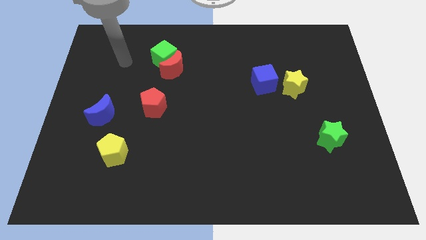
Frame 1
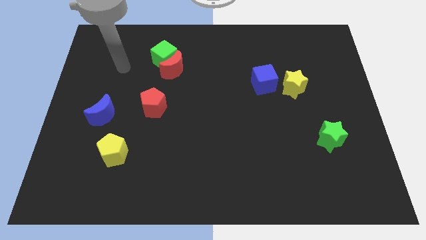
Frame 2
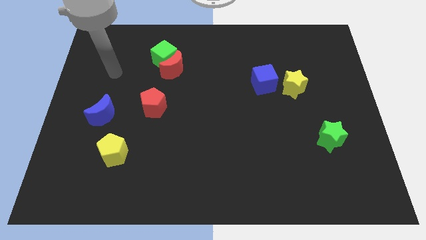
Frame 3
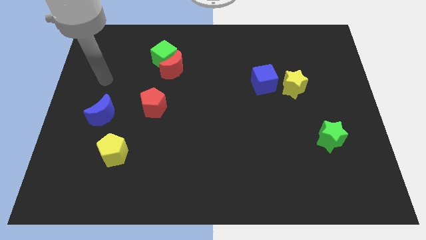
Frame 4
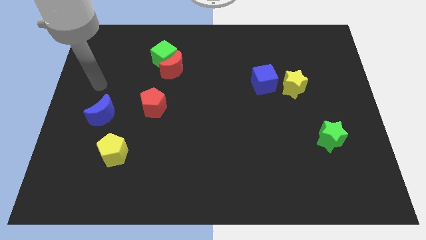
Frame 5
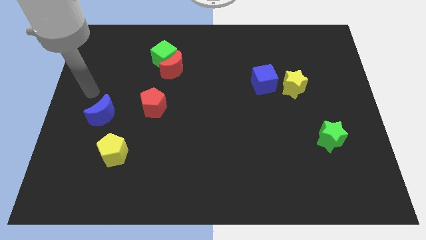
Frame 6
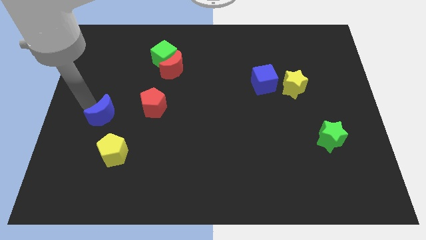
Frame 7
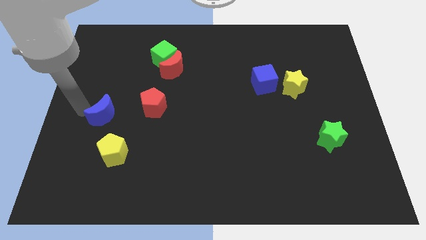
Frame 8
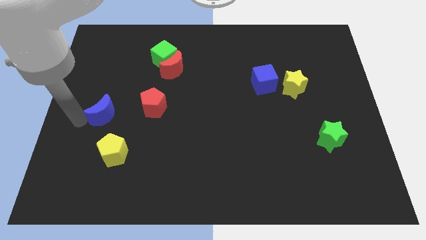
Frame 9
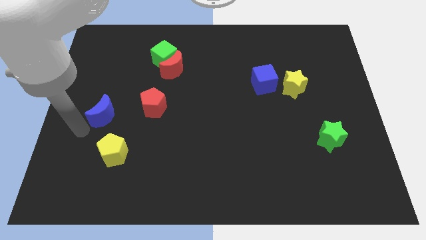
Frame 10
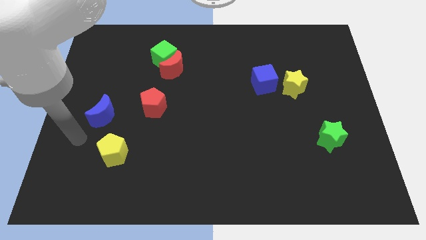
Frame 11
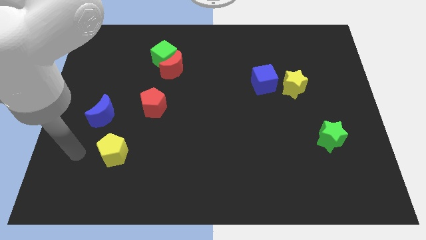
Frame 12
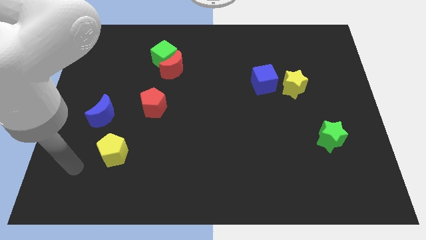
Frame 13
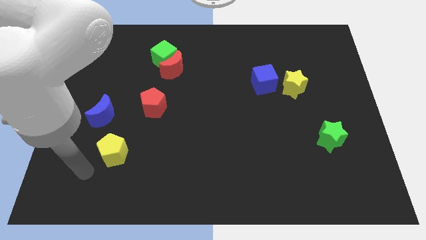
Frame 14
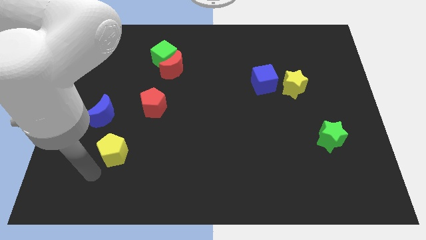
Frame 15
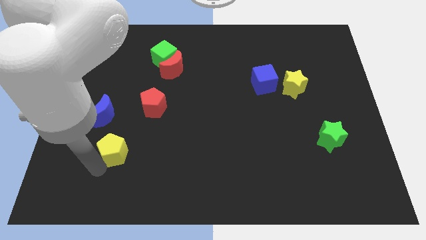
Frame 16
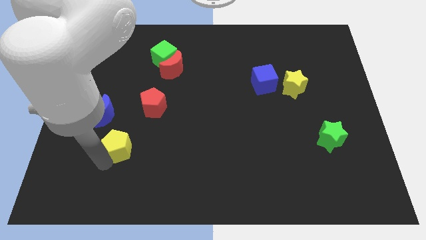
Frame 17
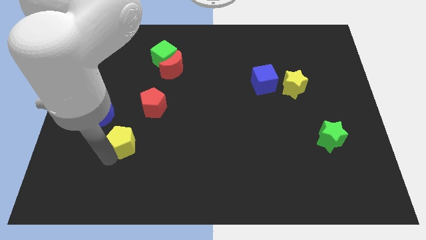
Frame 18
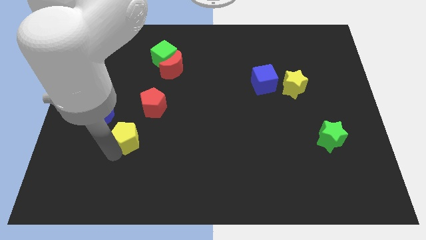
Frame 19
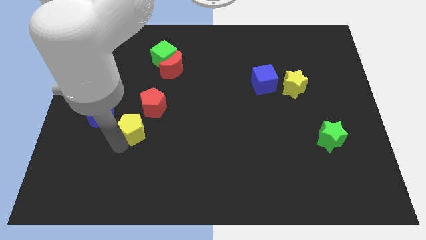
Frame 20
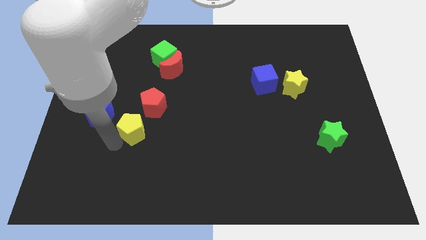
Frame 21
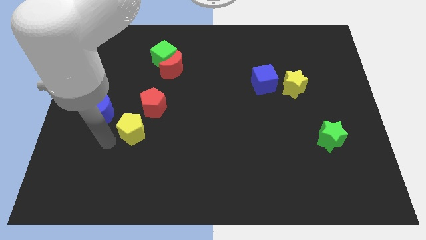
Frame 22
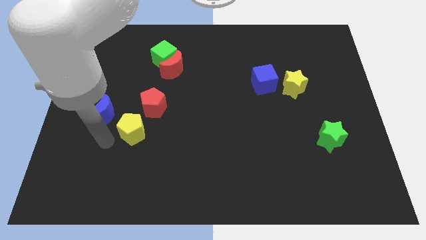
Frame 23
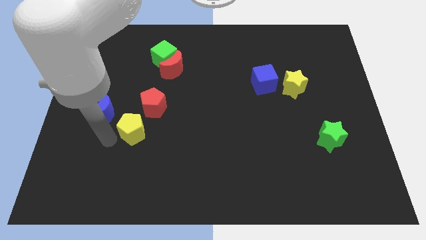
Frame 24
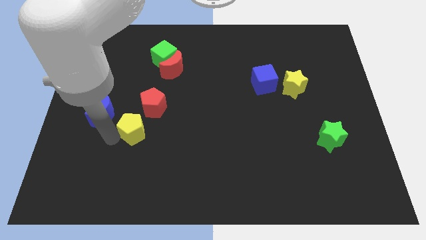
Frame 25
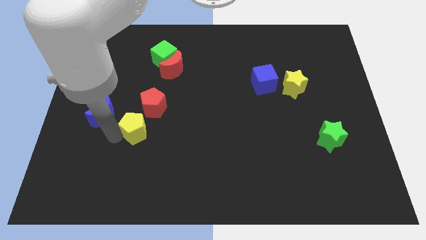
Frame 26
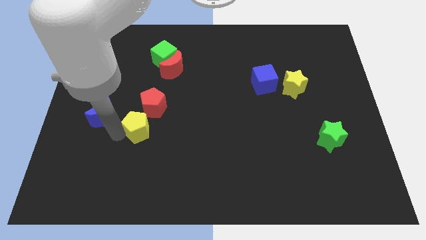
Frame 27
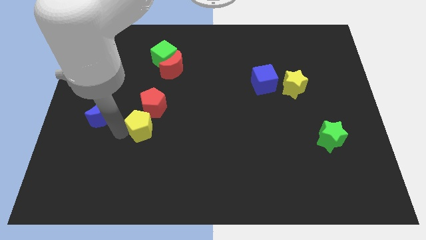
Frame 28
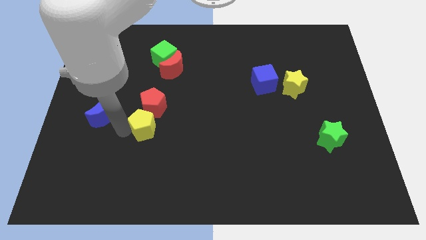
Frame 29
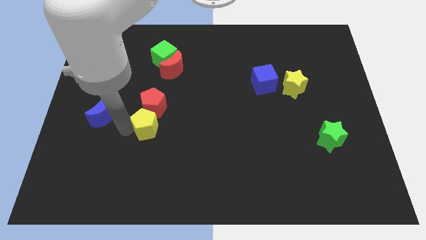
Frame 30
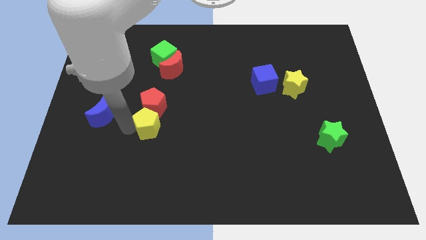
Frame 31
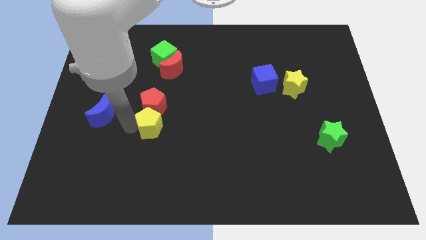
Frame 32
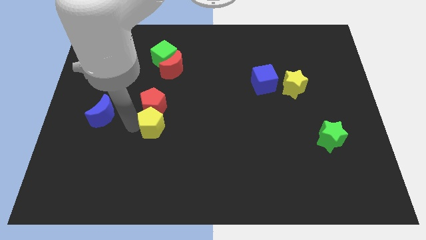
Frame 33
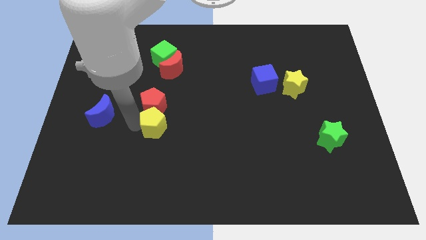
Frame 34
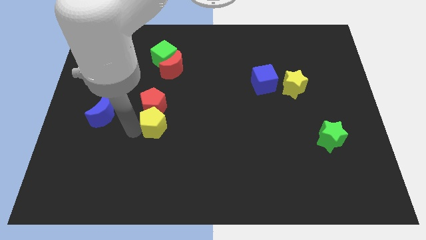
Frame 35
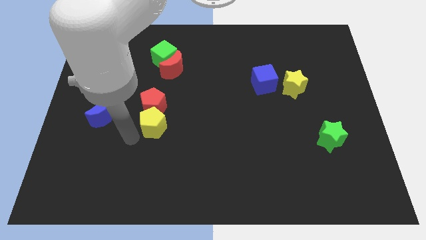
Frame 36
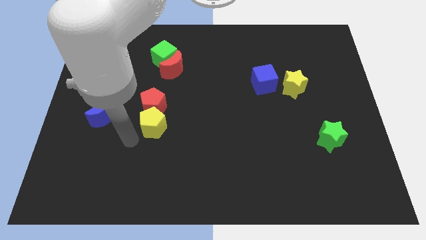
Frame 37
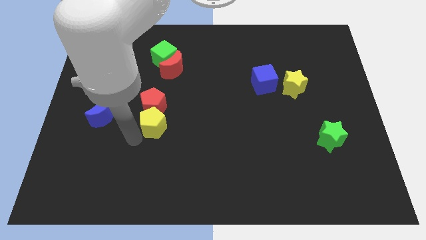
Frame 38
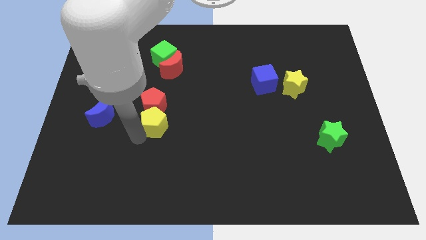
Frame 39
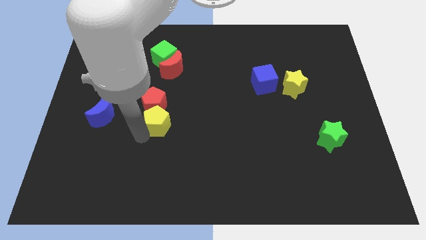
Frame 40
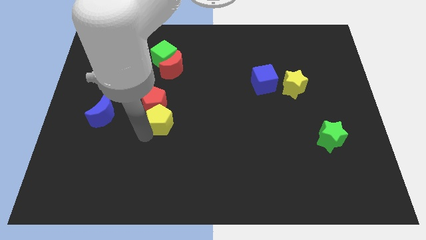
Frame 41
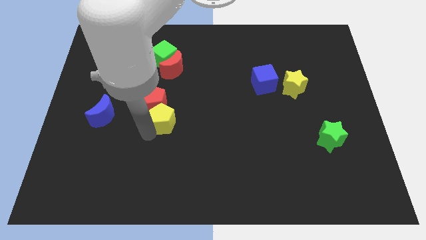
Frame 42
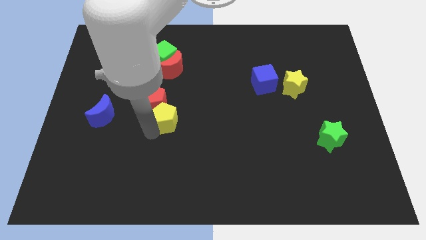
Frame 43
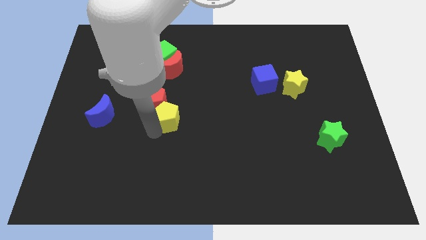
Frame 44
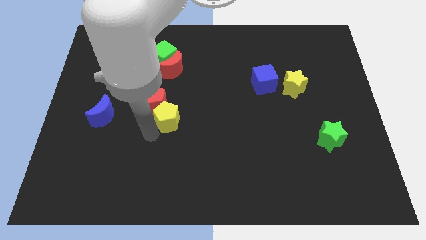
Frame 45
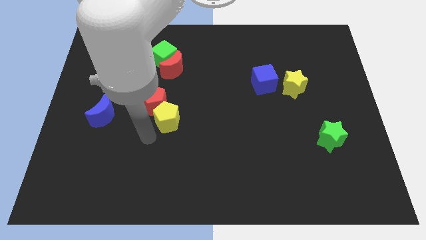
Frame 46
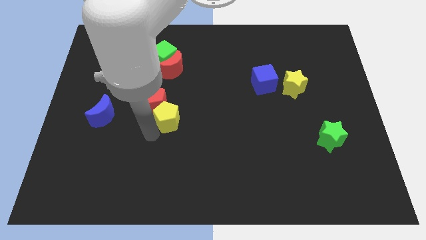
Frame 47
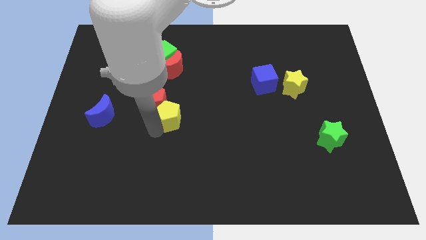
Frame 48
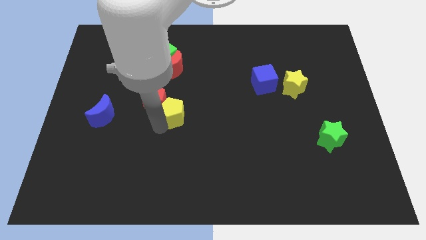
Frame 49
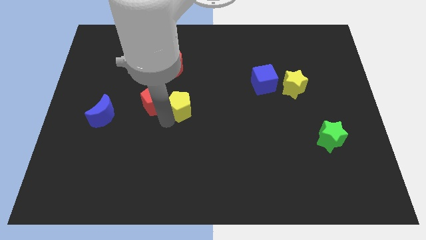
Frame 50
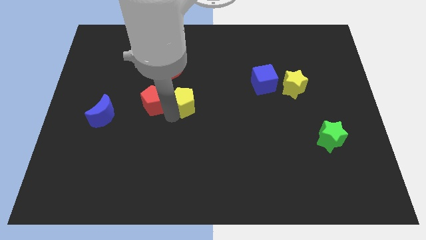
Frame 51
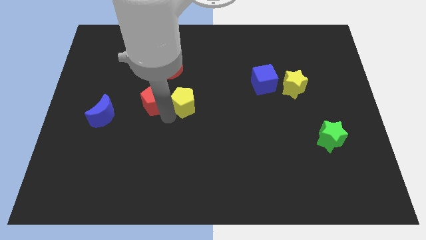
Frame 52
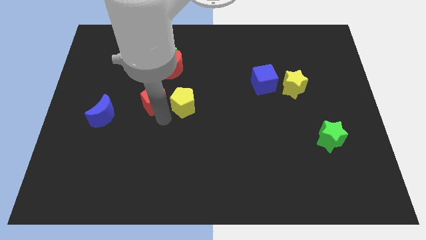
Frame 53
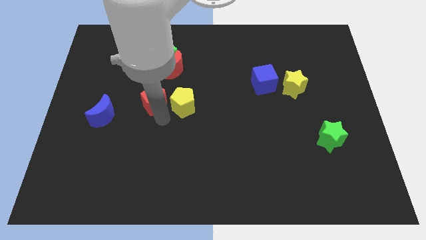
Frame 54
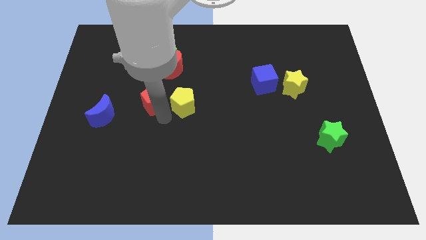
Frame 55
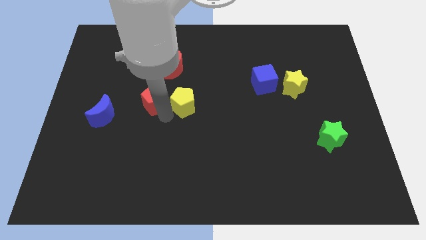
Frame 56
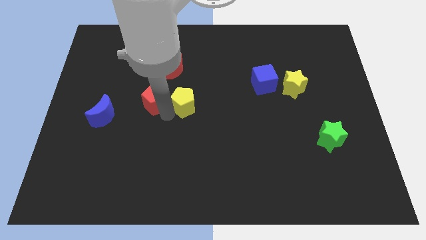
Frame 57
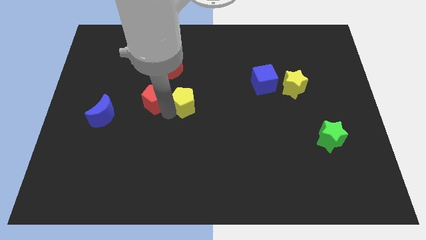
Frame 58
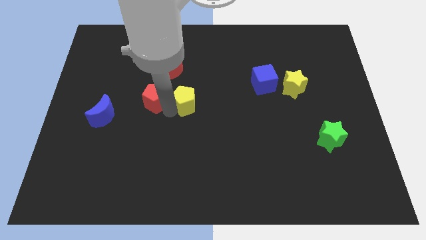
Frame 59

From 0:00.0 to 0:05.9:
push the yellow pentagon diagonally up and to the right

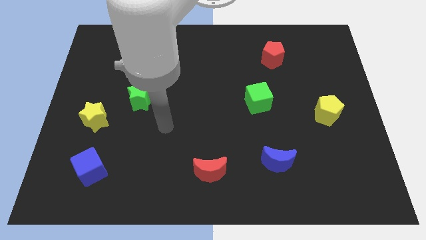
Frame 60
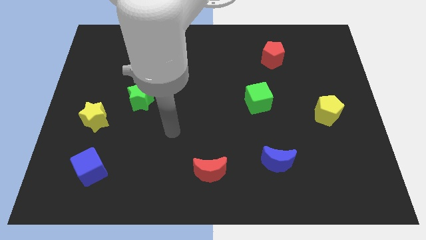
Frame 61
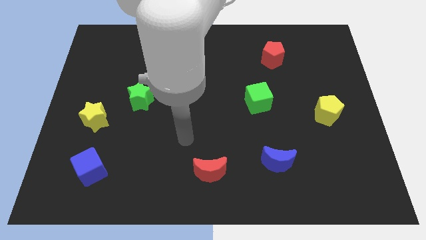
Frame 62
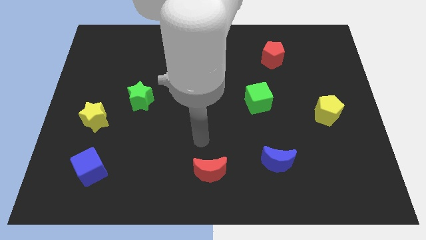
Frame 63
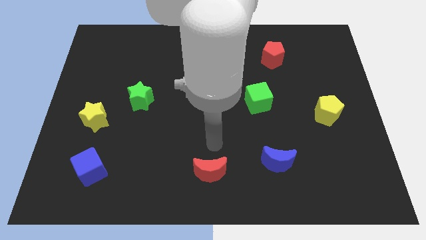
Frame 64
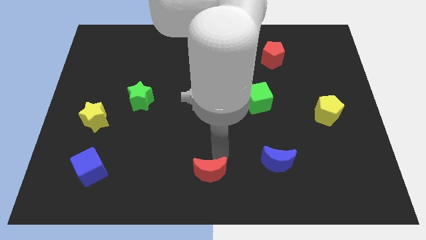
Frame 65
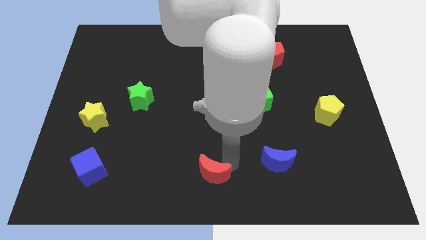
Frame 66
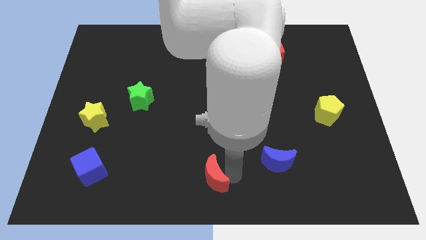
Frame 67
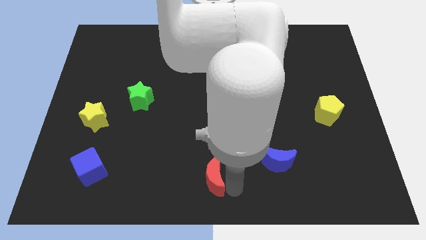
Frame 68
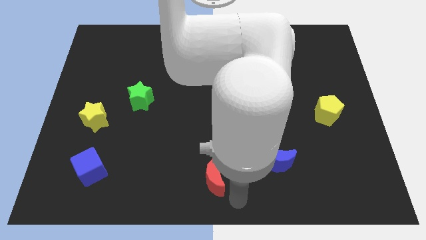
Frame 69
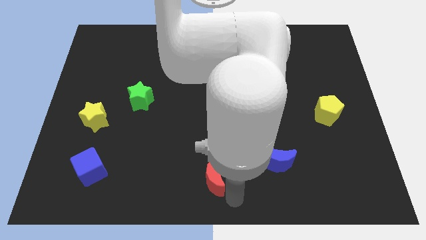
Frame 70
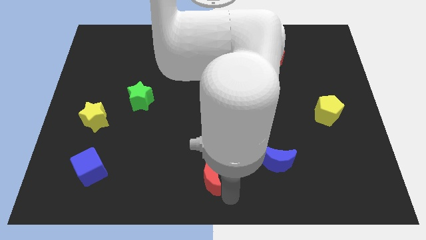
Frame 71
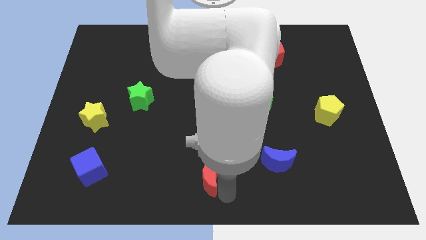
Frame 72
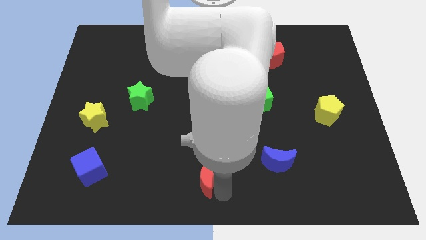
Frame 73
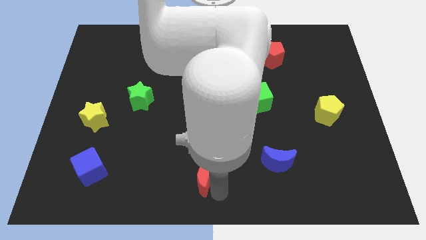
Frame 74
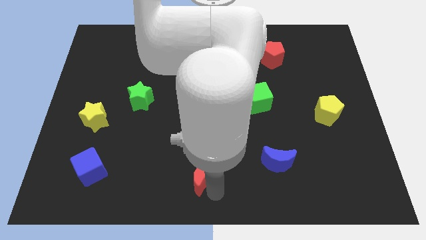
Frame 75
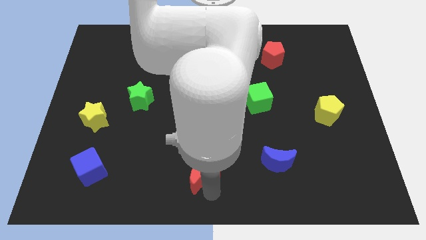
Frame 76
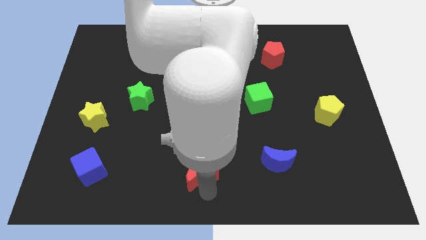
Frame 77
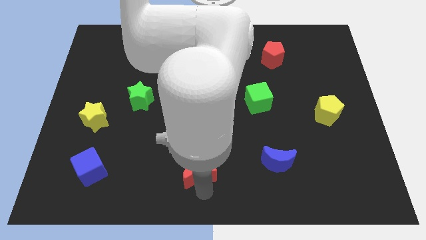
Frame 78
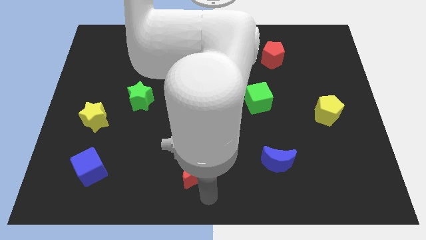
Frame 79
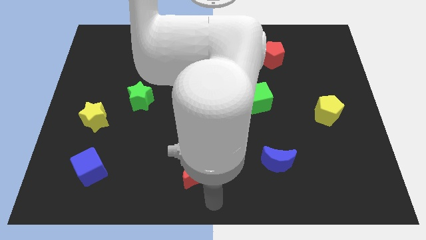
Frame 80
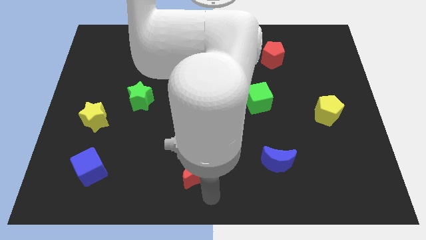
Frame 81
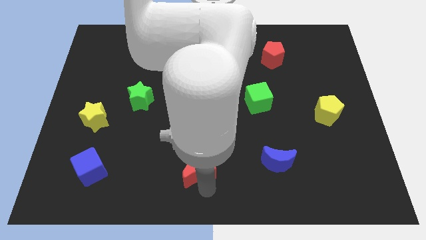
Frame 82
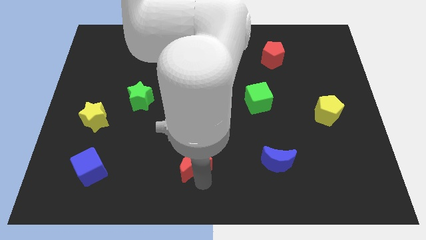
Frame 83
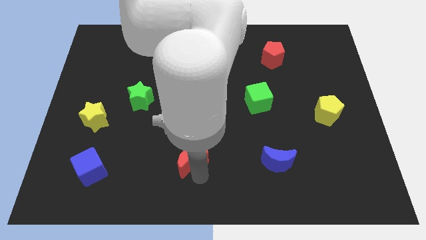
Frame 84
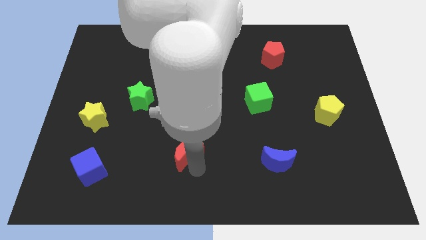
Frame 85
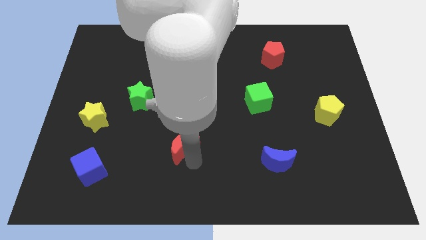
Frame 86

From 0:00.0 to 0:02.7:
slide the red moon diagonally upwards and left a little
